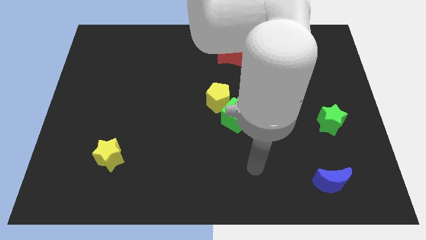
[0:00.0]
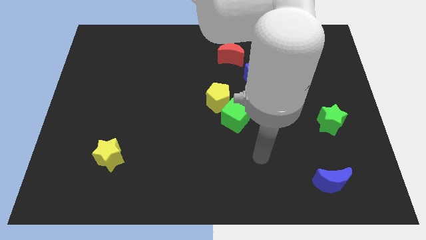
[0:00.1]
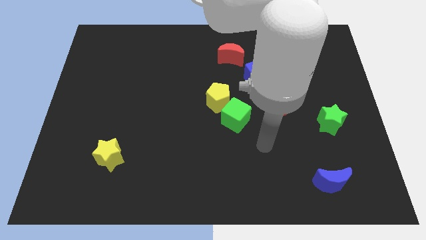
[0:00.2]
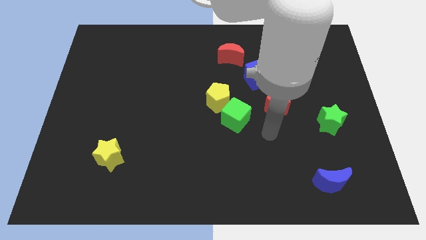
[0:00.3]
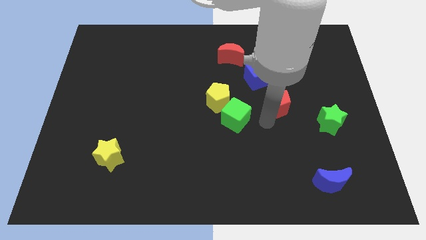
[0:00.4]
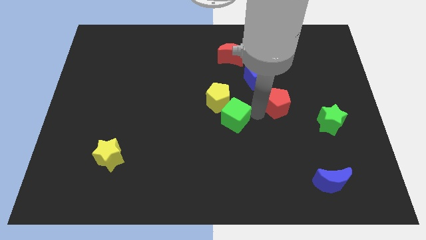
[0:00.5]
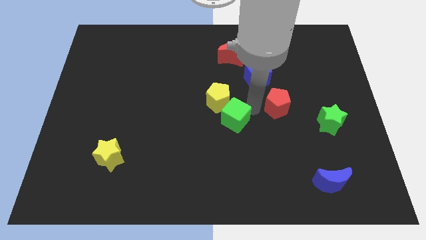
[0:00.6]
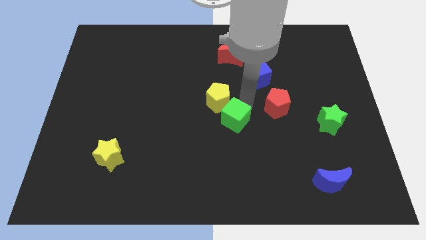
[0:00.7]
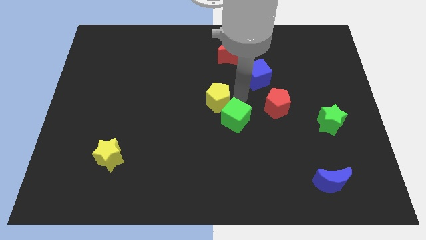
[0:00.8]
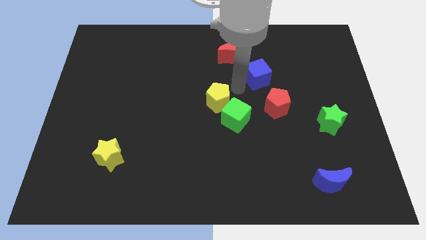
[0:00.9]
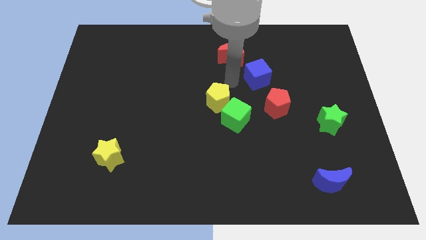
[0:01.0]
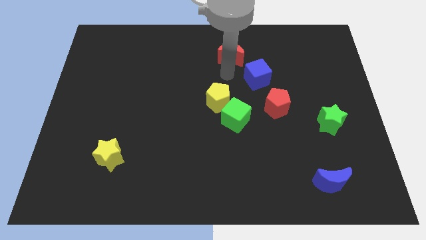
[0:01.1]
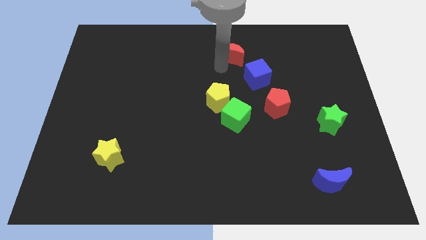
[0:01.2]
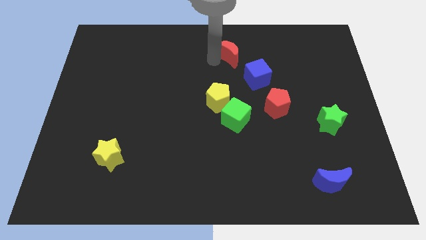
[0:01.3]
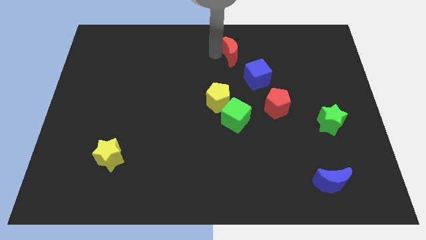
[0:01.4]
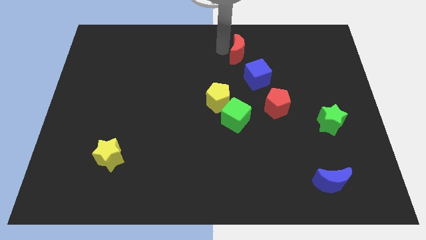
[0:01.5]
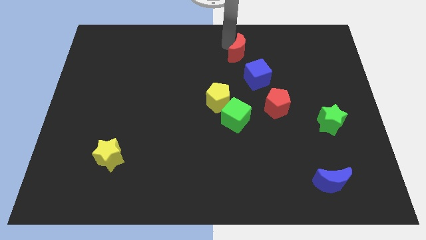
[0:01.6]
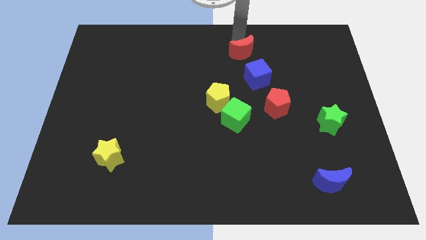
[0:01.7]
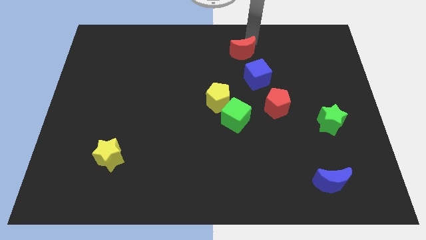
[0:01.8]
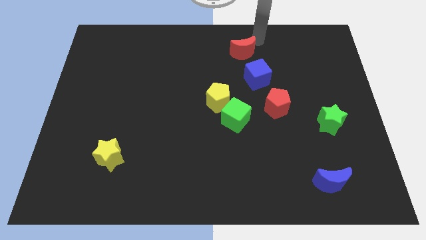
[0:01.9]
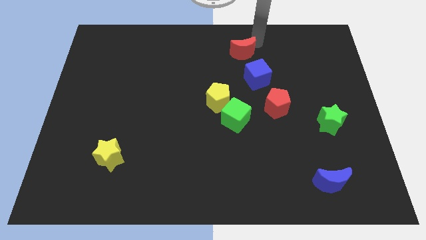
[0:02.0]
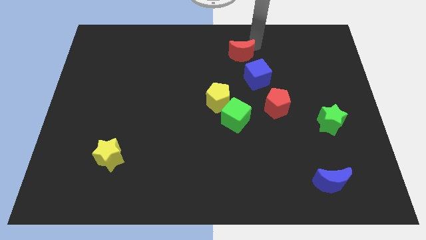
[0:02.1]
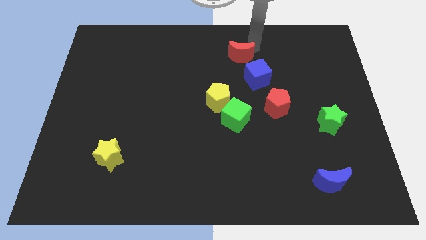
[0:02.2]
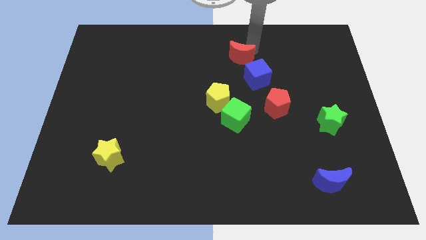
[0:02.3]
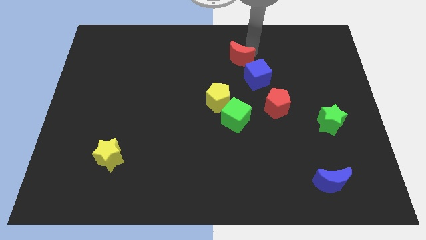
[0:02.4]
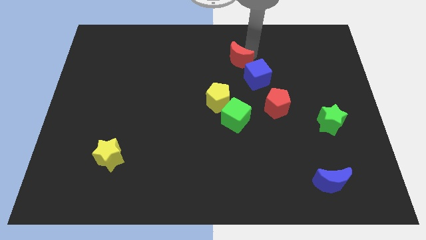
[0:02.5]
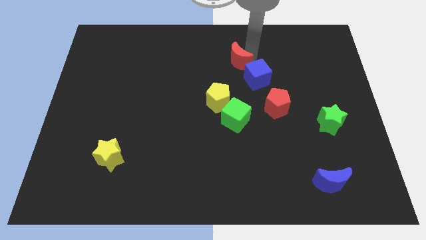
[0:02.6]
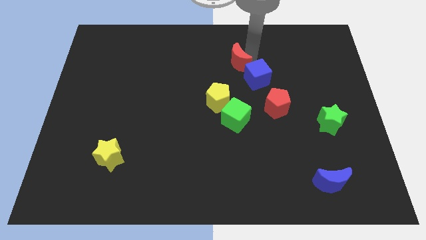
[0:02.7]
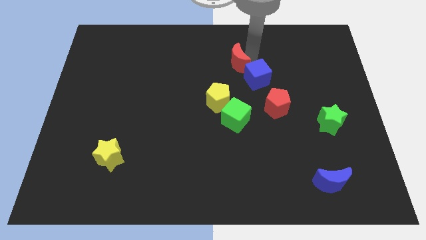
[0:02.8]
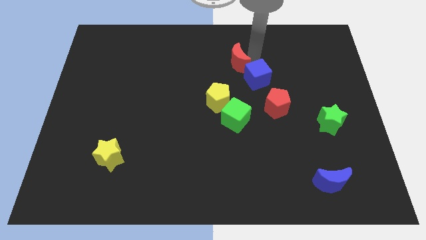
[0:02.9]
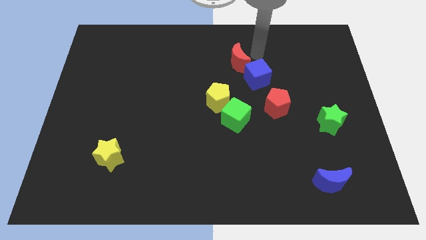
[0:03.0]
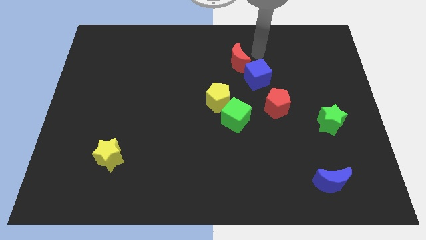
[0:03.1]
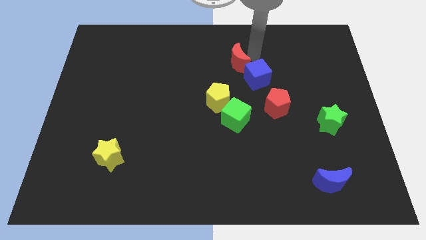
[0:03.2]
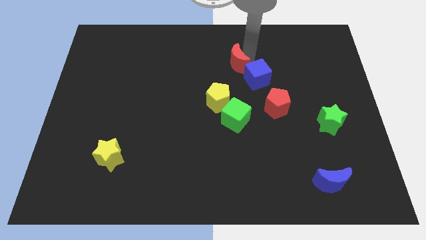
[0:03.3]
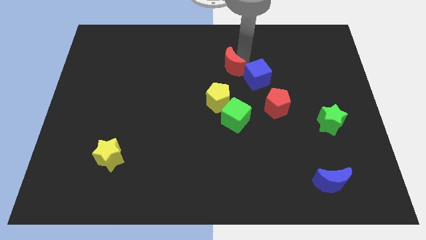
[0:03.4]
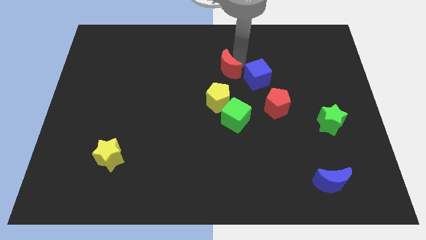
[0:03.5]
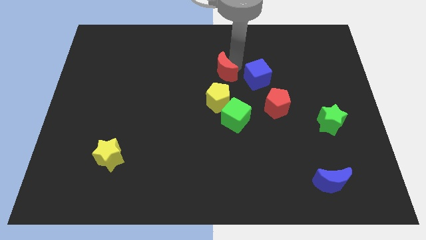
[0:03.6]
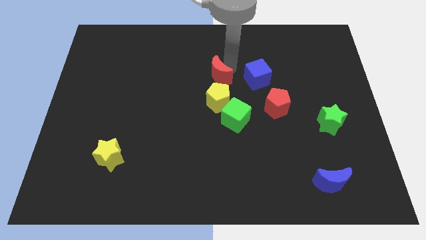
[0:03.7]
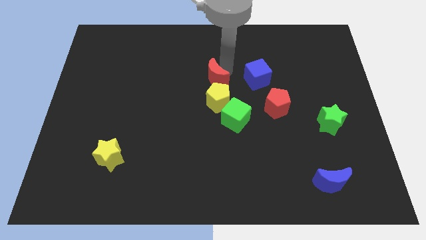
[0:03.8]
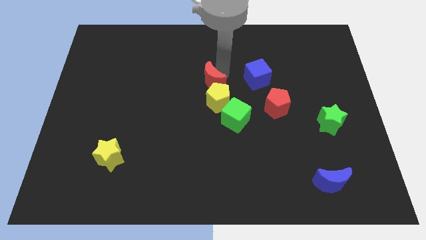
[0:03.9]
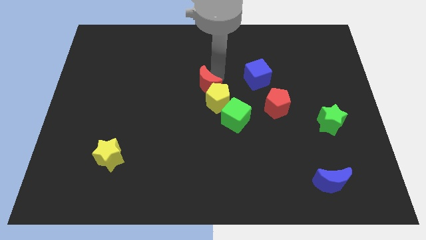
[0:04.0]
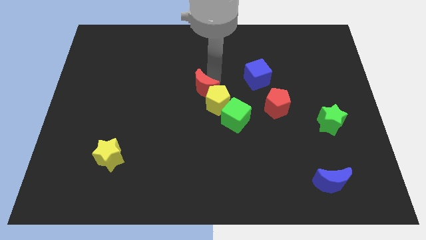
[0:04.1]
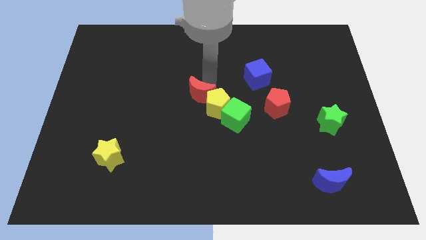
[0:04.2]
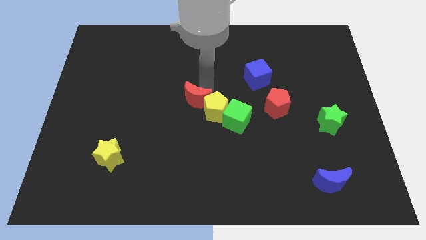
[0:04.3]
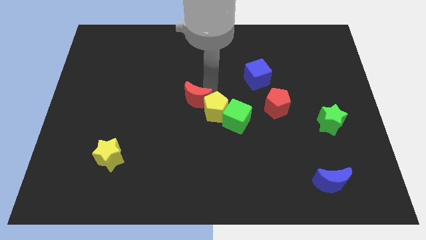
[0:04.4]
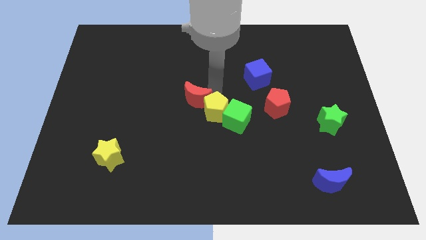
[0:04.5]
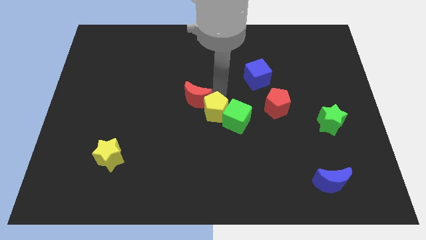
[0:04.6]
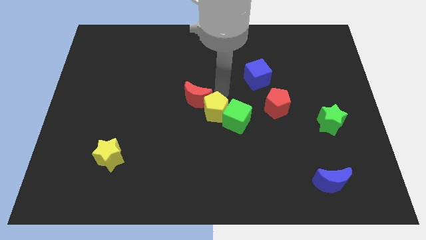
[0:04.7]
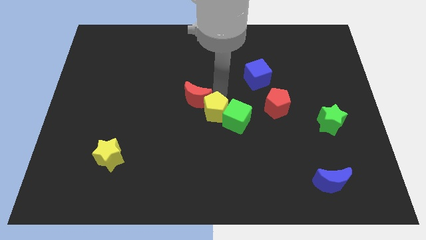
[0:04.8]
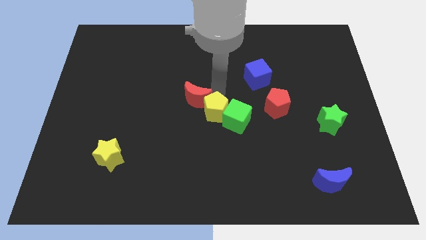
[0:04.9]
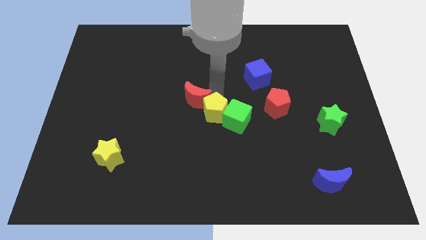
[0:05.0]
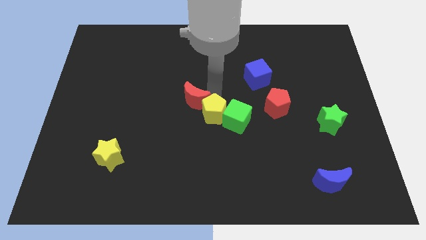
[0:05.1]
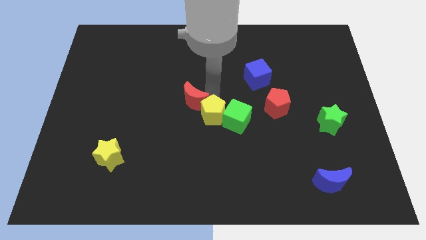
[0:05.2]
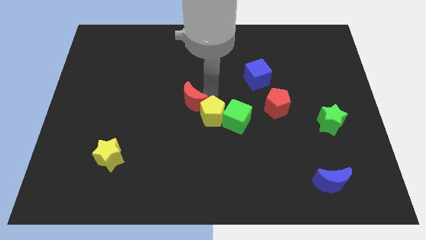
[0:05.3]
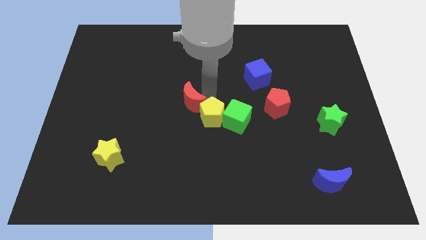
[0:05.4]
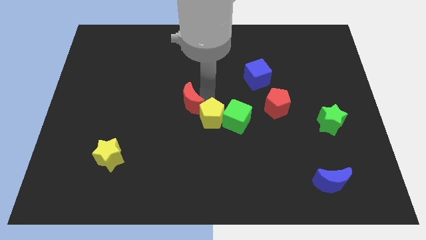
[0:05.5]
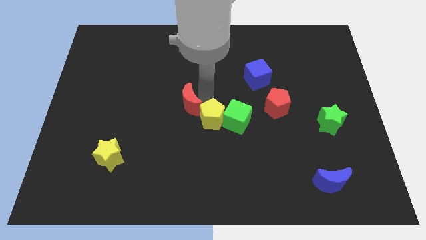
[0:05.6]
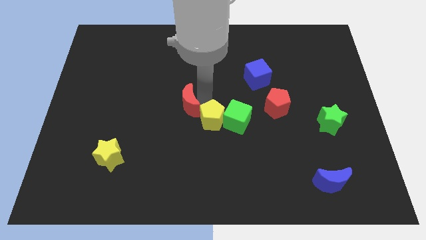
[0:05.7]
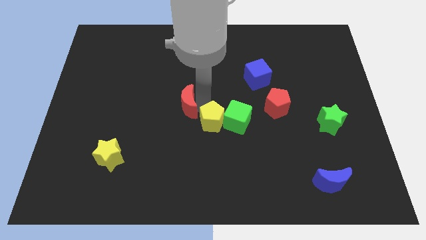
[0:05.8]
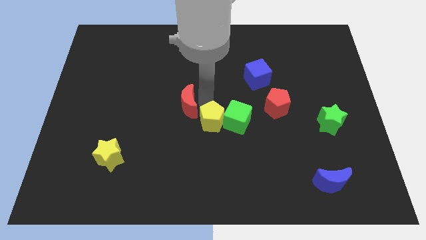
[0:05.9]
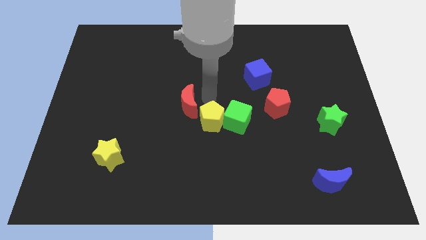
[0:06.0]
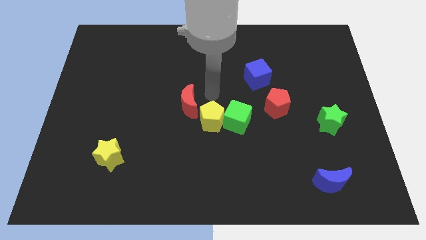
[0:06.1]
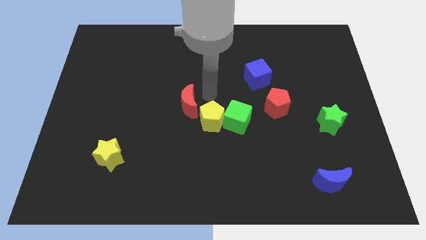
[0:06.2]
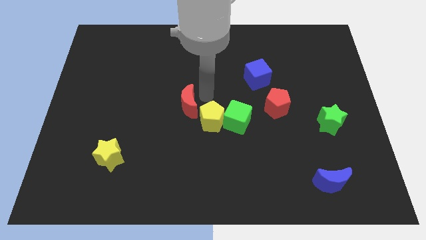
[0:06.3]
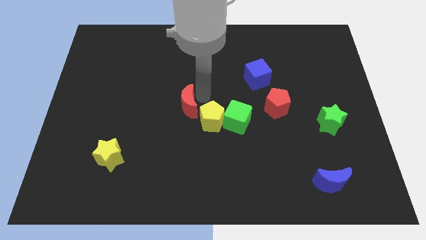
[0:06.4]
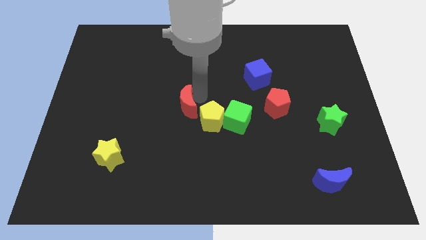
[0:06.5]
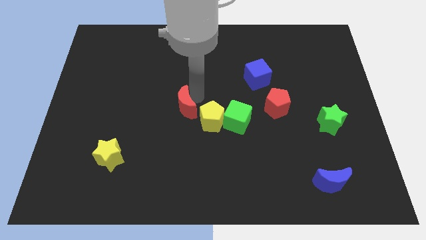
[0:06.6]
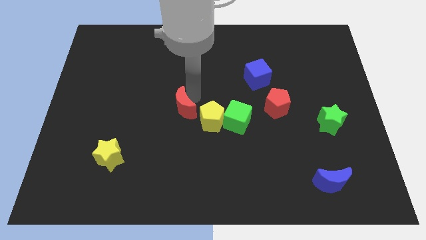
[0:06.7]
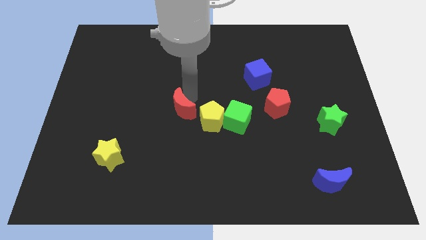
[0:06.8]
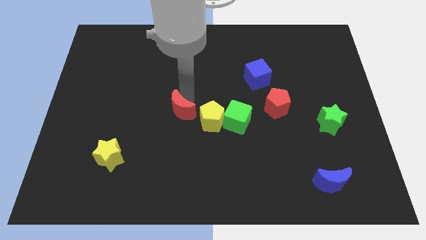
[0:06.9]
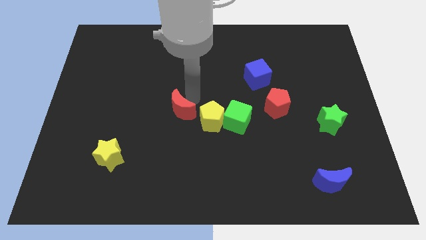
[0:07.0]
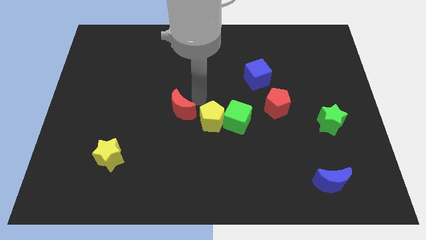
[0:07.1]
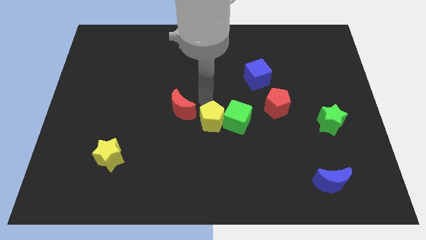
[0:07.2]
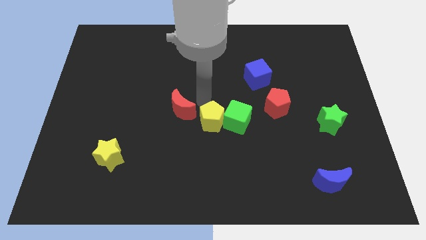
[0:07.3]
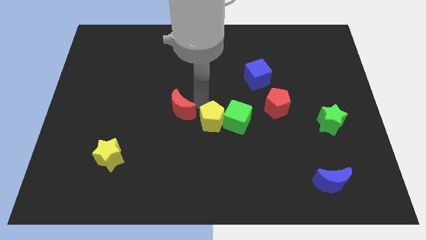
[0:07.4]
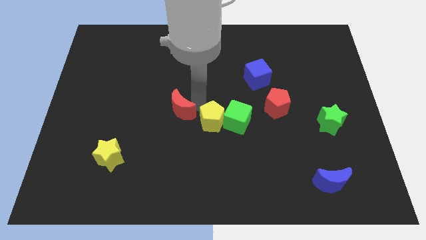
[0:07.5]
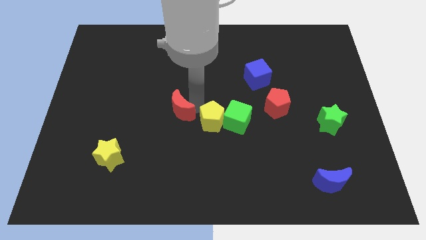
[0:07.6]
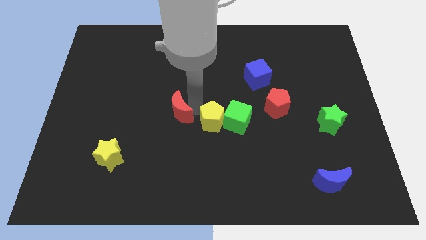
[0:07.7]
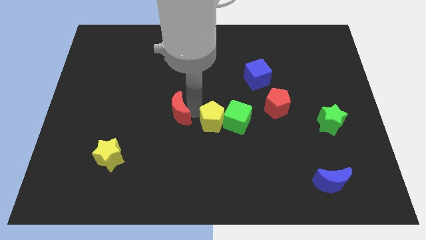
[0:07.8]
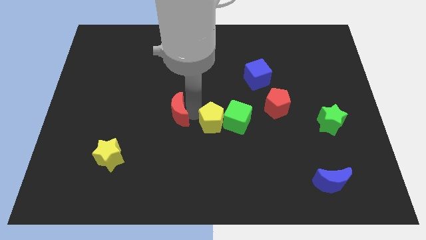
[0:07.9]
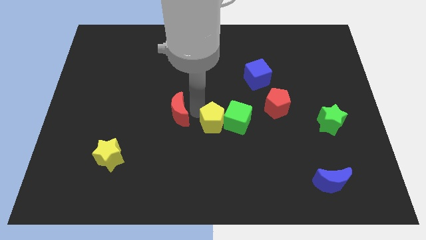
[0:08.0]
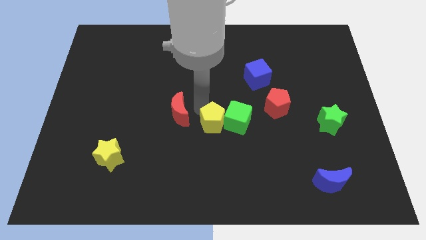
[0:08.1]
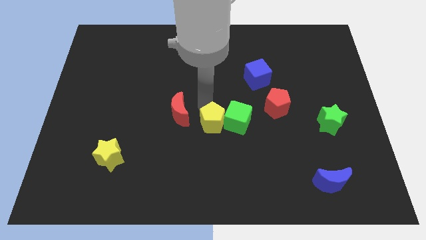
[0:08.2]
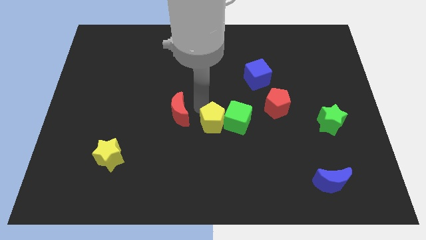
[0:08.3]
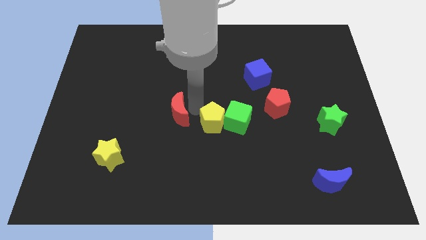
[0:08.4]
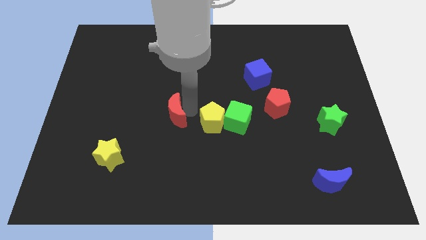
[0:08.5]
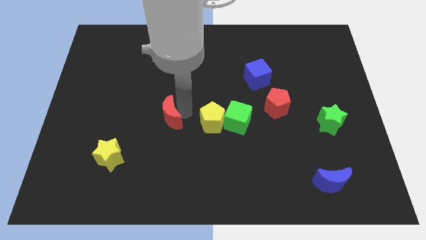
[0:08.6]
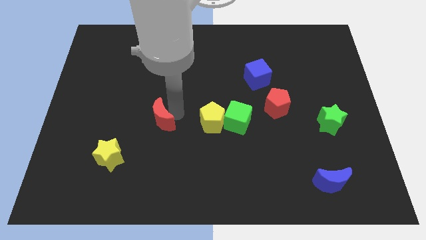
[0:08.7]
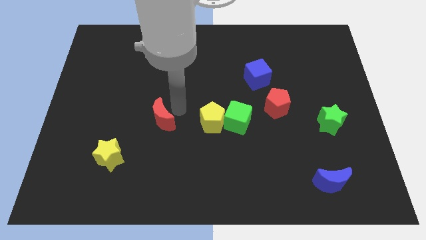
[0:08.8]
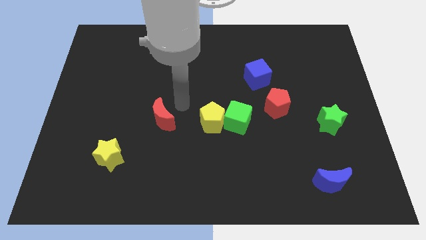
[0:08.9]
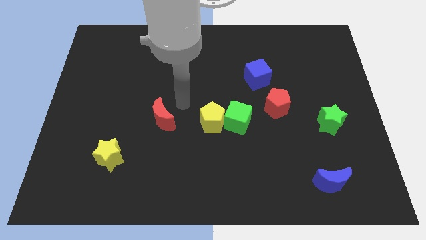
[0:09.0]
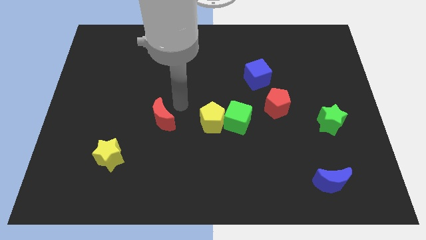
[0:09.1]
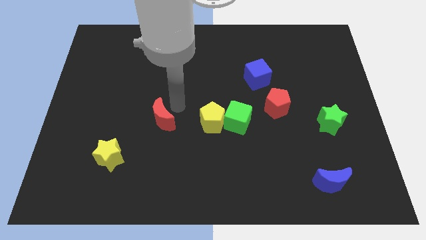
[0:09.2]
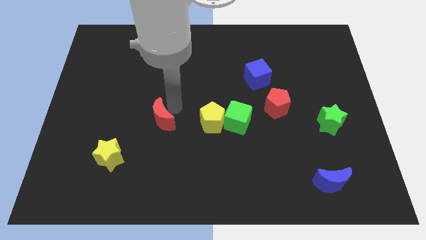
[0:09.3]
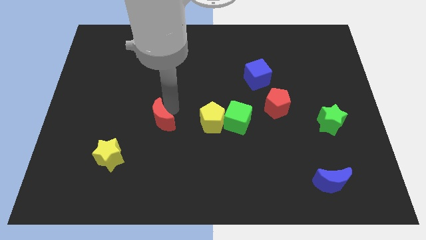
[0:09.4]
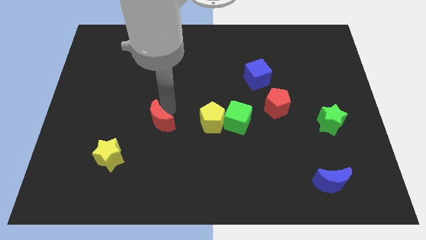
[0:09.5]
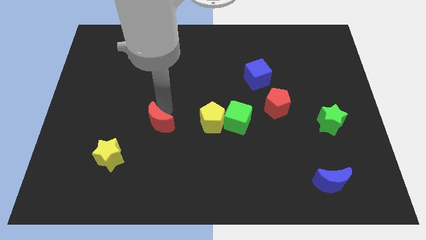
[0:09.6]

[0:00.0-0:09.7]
slide the red moon to the top right side of the yellow star
